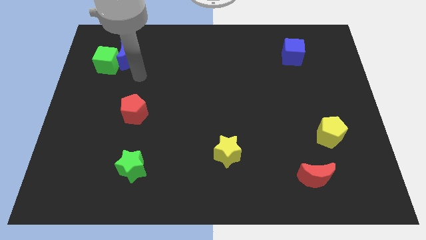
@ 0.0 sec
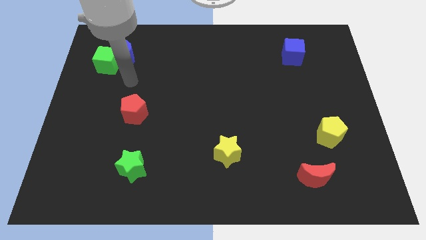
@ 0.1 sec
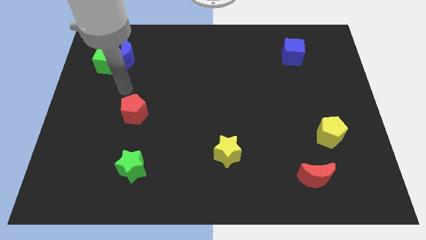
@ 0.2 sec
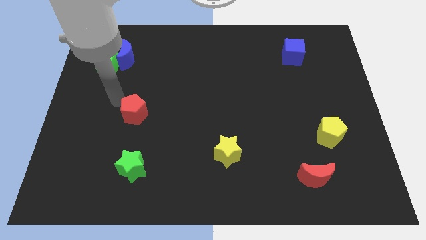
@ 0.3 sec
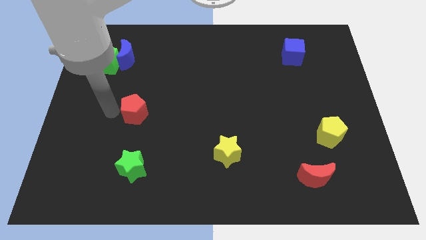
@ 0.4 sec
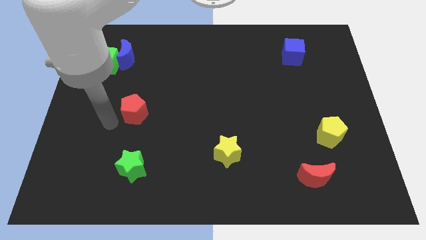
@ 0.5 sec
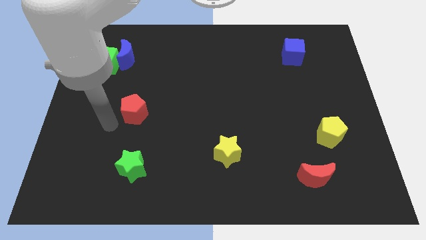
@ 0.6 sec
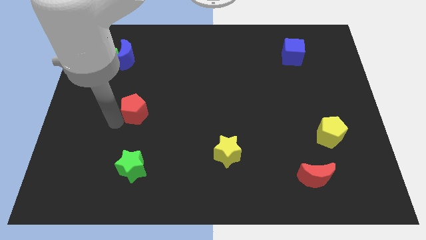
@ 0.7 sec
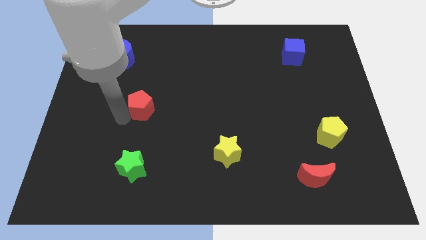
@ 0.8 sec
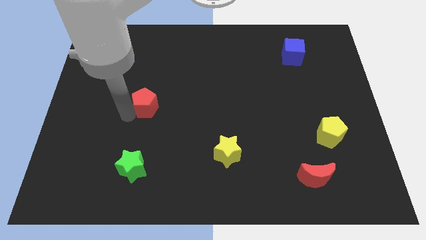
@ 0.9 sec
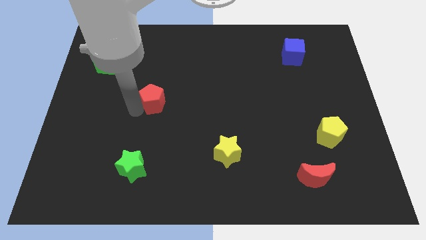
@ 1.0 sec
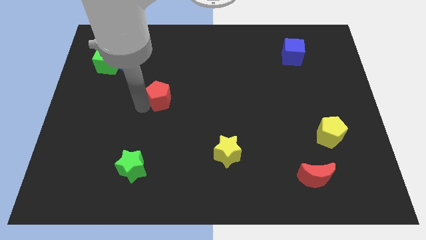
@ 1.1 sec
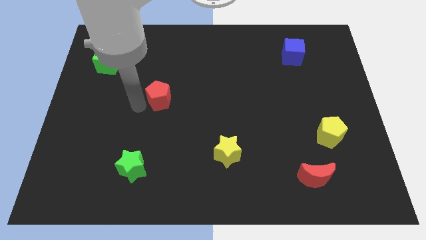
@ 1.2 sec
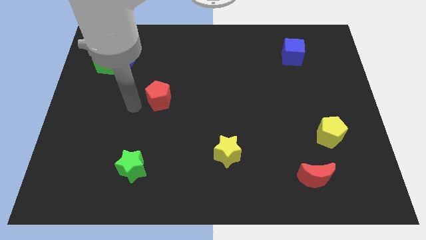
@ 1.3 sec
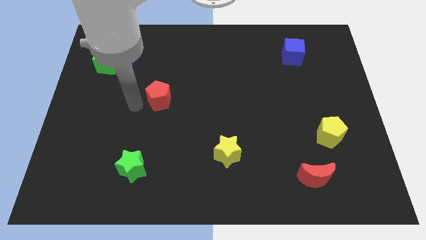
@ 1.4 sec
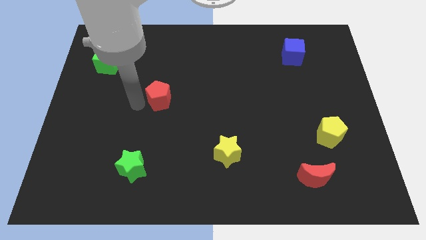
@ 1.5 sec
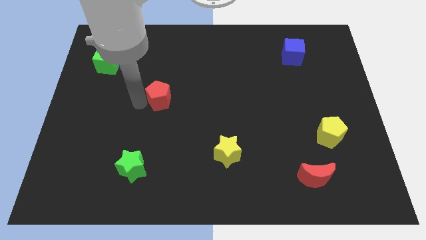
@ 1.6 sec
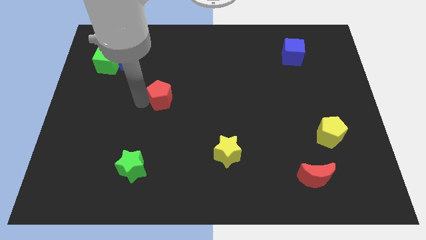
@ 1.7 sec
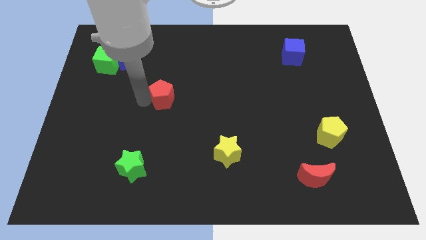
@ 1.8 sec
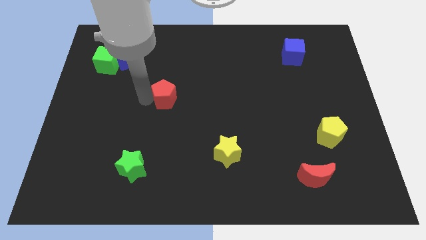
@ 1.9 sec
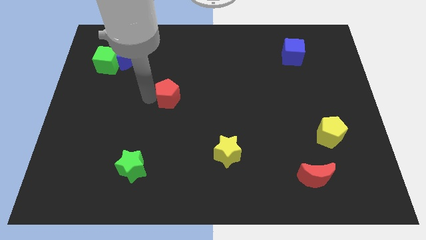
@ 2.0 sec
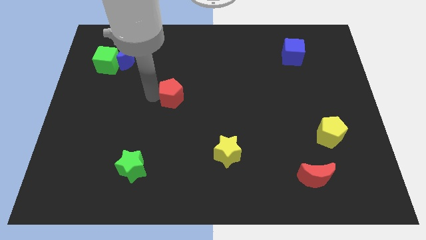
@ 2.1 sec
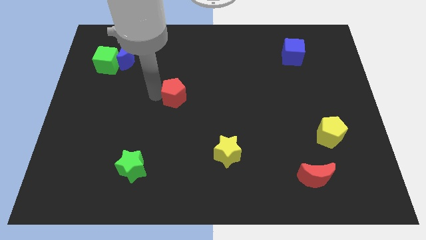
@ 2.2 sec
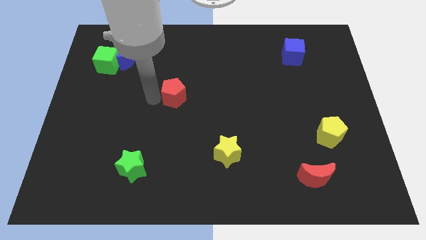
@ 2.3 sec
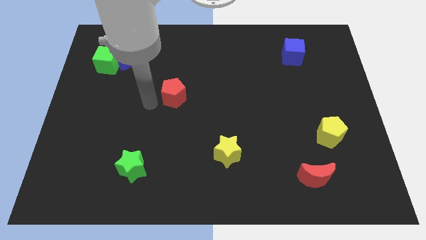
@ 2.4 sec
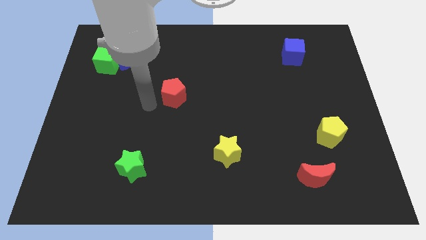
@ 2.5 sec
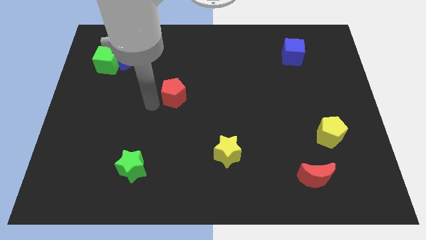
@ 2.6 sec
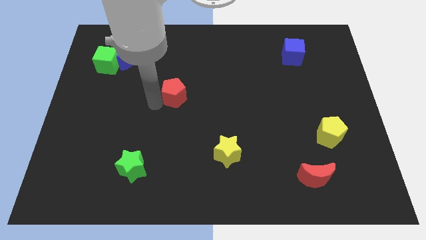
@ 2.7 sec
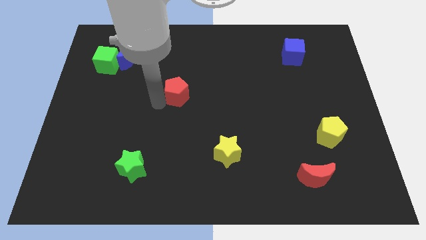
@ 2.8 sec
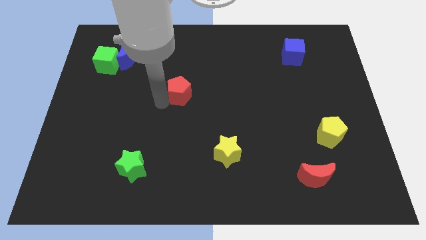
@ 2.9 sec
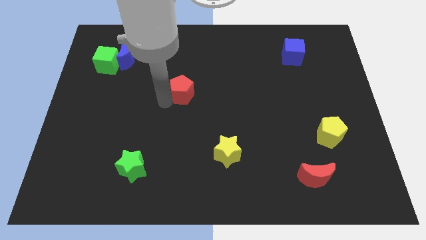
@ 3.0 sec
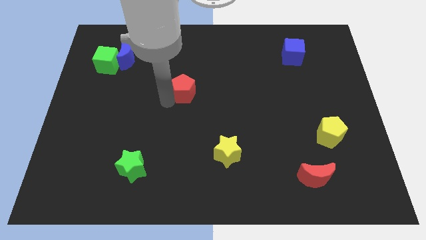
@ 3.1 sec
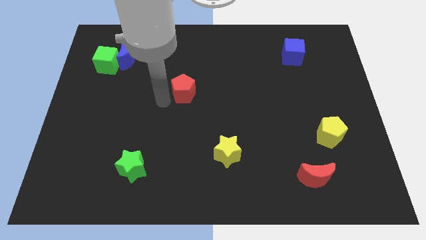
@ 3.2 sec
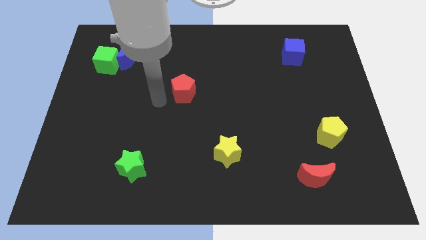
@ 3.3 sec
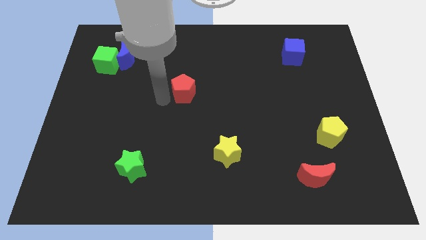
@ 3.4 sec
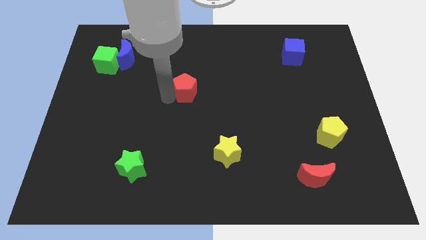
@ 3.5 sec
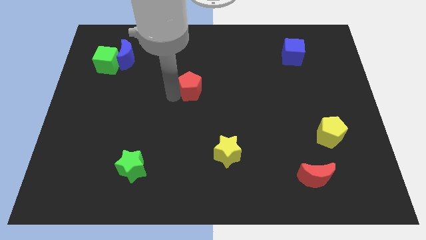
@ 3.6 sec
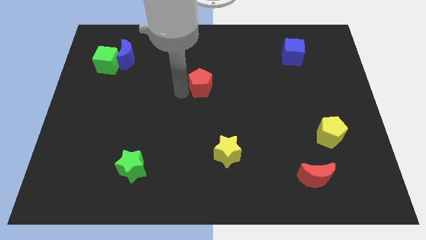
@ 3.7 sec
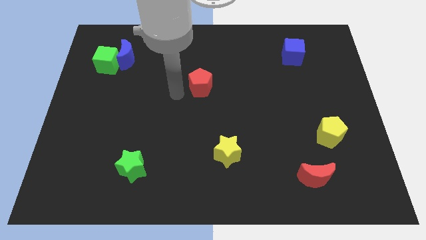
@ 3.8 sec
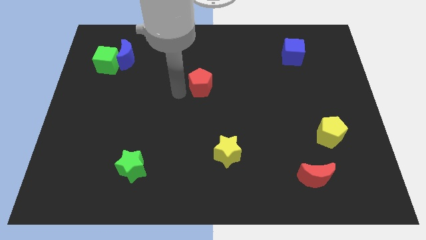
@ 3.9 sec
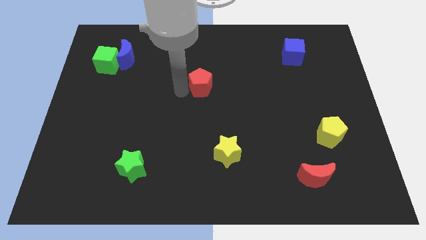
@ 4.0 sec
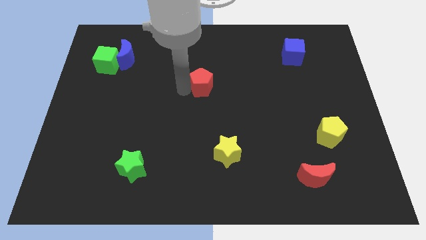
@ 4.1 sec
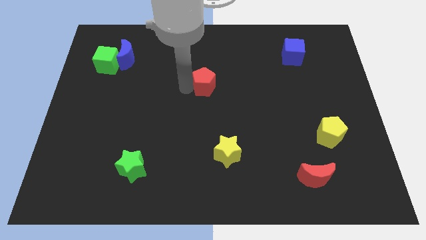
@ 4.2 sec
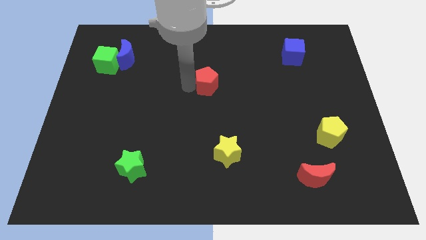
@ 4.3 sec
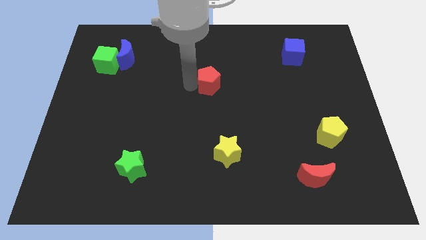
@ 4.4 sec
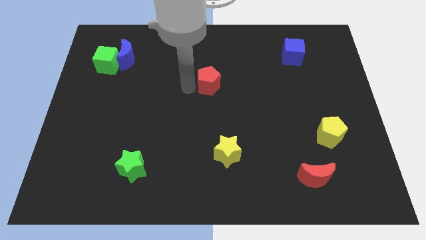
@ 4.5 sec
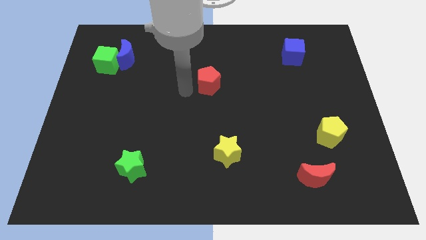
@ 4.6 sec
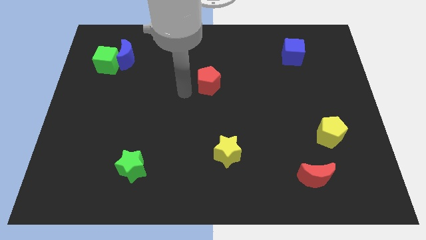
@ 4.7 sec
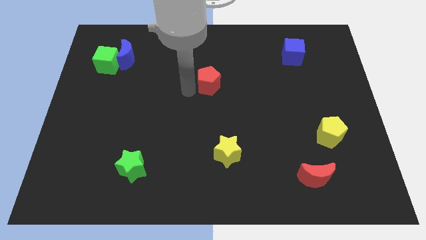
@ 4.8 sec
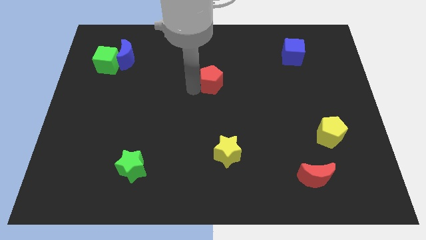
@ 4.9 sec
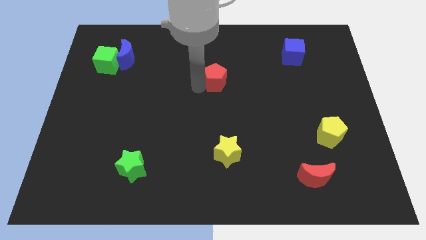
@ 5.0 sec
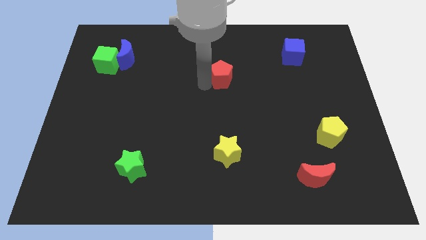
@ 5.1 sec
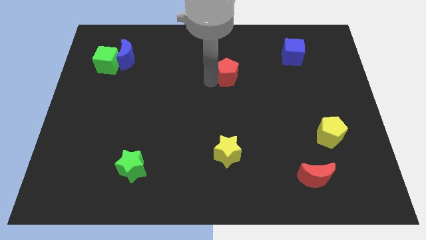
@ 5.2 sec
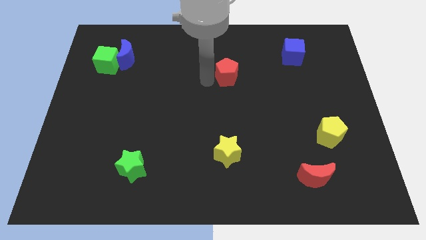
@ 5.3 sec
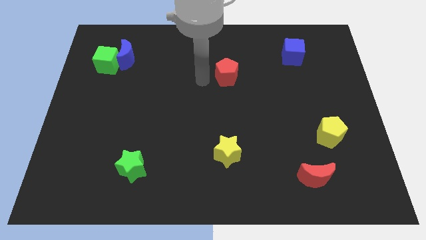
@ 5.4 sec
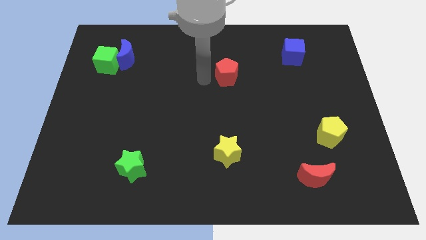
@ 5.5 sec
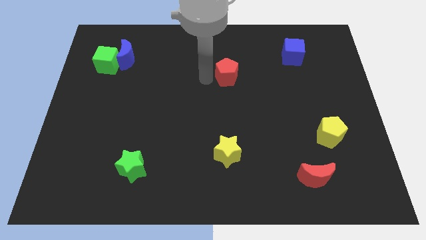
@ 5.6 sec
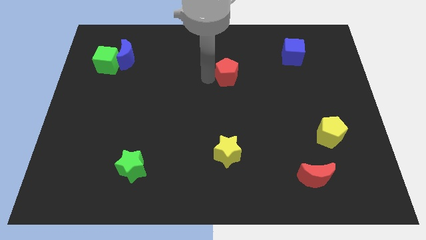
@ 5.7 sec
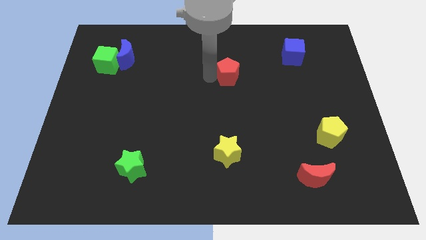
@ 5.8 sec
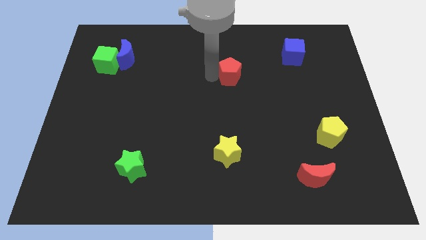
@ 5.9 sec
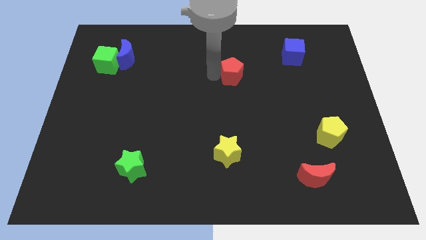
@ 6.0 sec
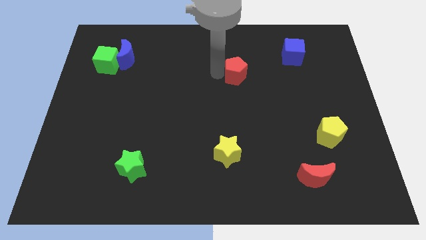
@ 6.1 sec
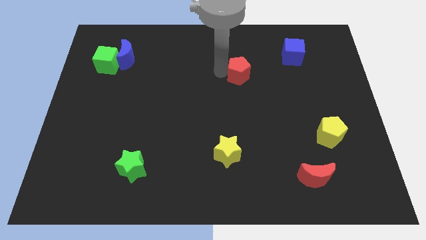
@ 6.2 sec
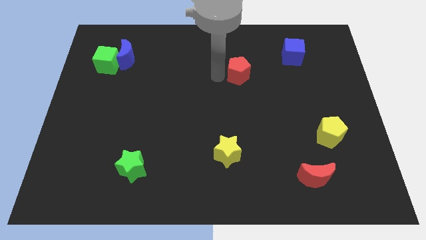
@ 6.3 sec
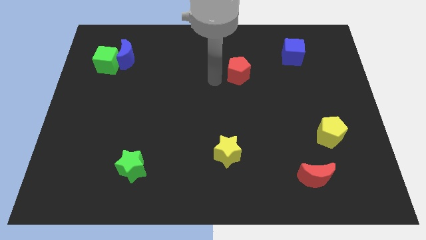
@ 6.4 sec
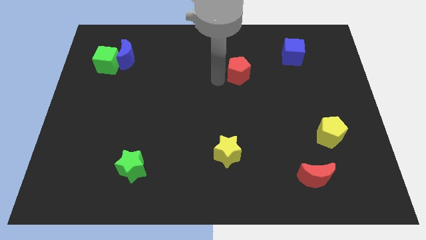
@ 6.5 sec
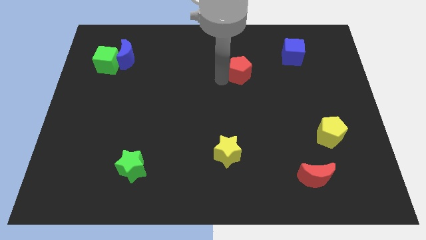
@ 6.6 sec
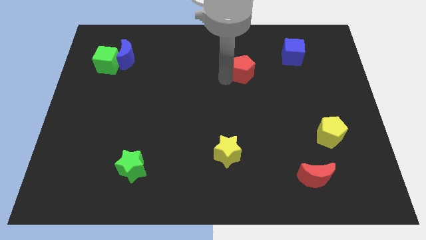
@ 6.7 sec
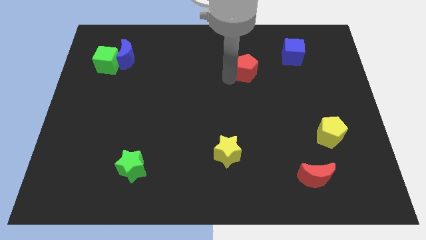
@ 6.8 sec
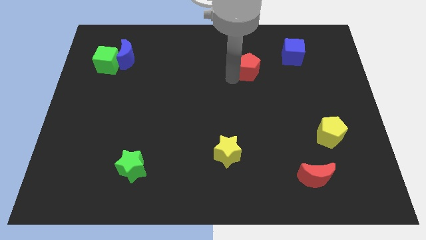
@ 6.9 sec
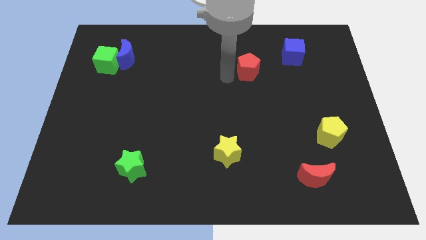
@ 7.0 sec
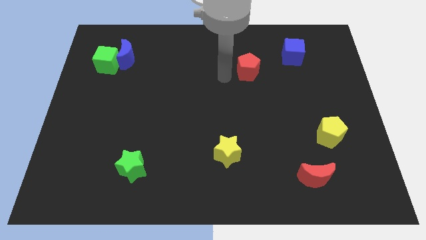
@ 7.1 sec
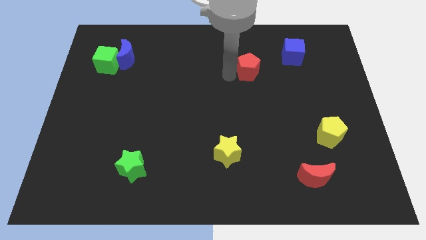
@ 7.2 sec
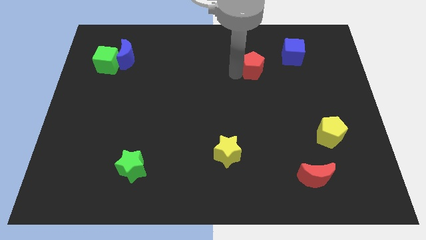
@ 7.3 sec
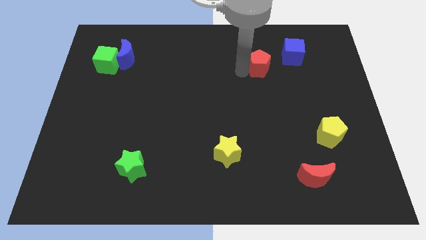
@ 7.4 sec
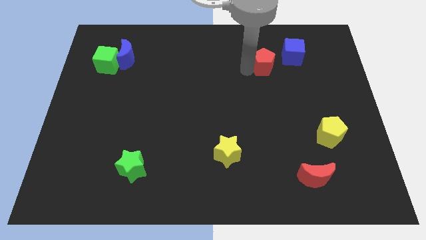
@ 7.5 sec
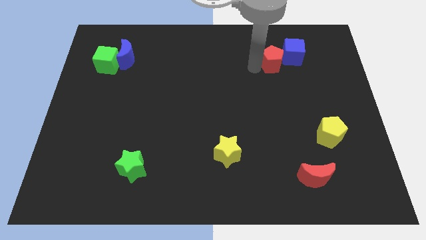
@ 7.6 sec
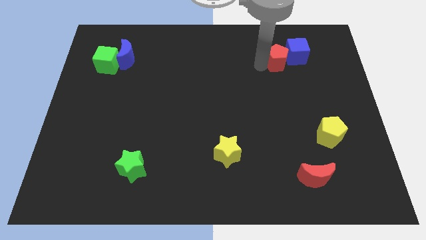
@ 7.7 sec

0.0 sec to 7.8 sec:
put the red pentagon towards the blue cube
